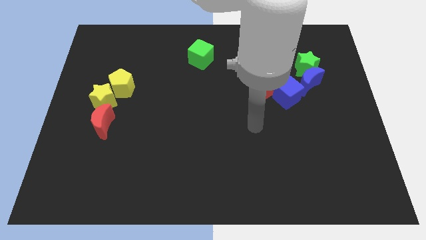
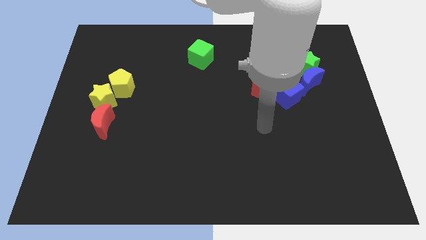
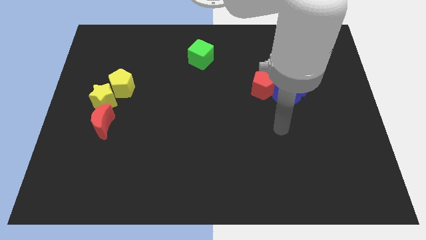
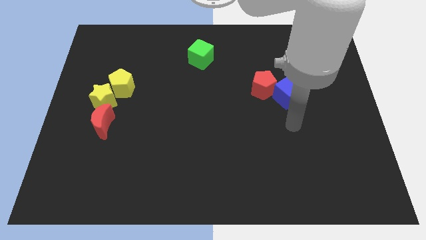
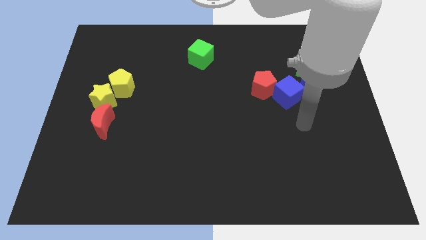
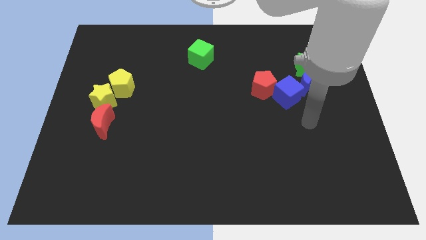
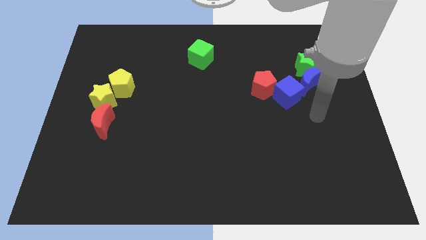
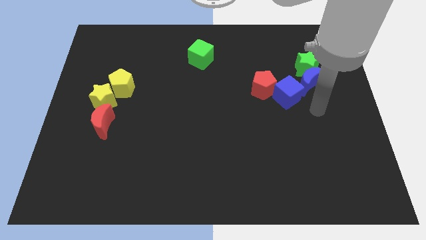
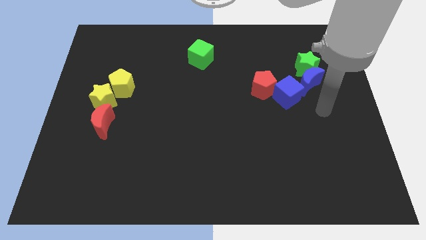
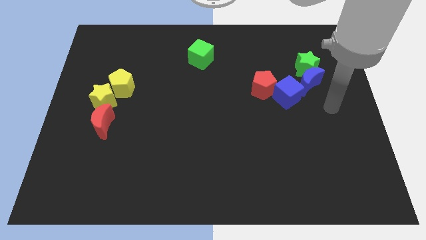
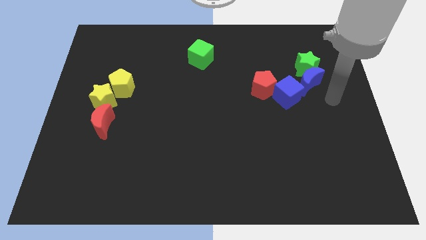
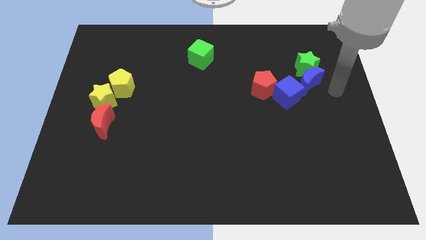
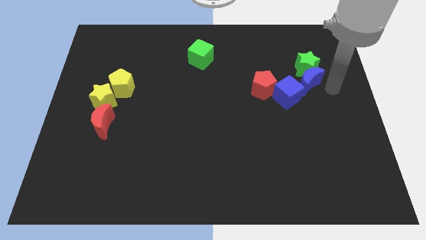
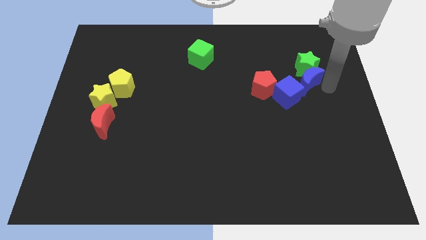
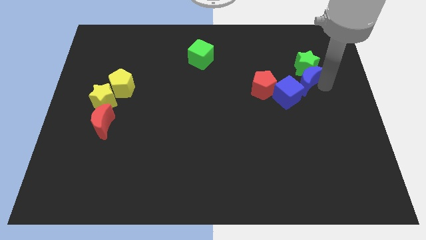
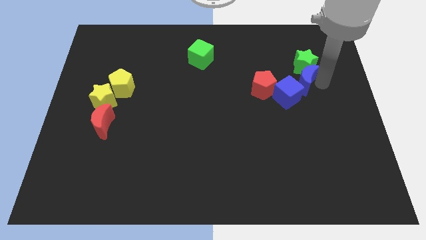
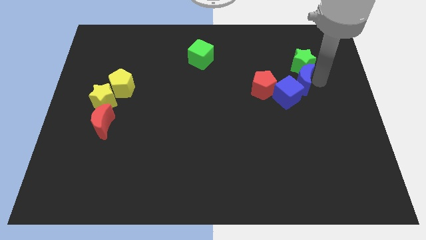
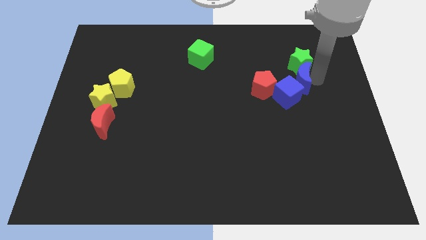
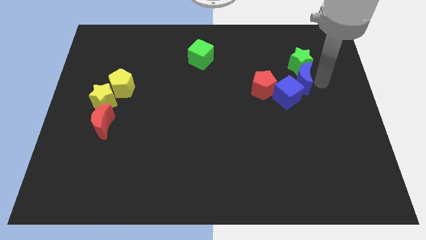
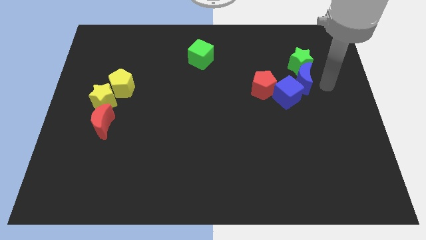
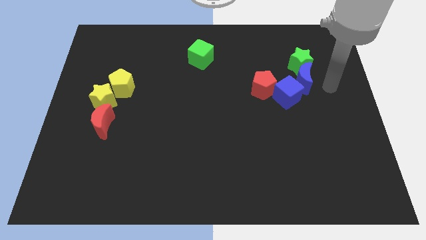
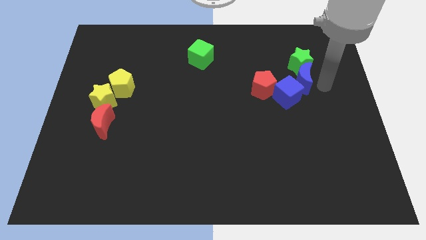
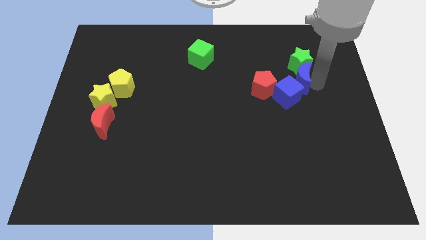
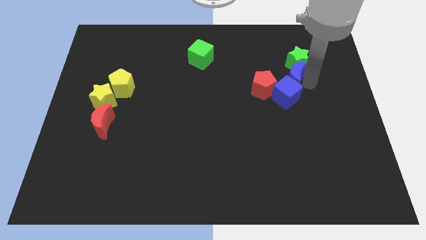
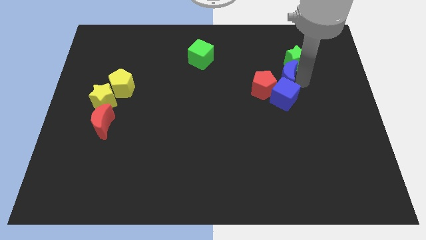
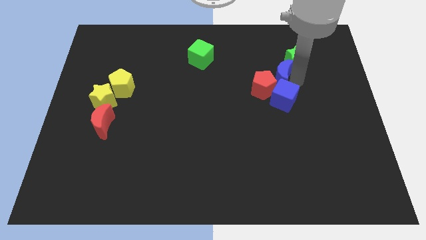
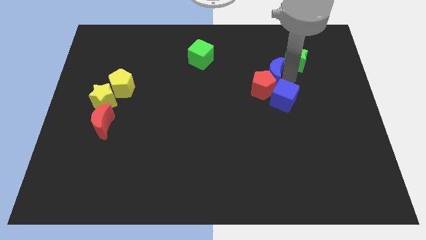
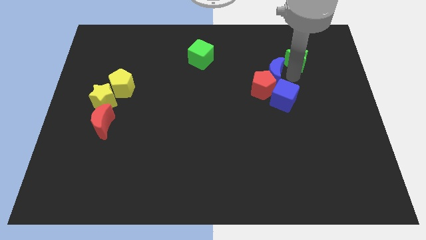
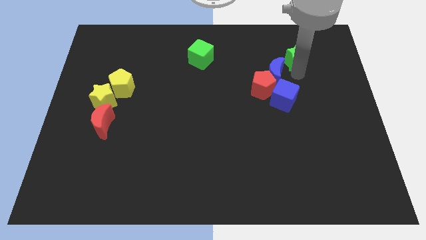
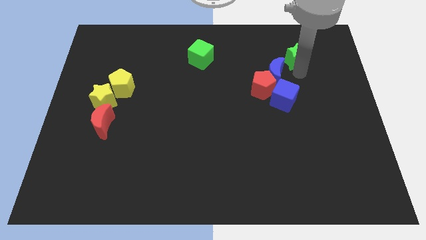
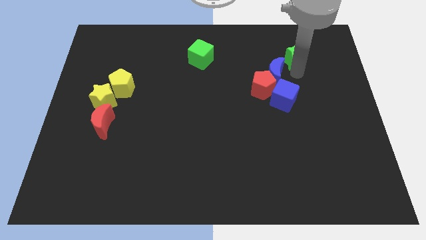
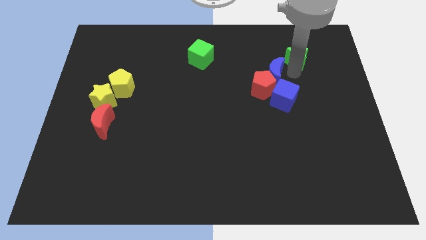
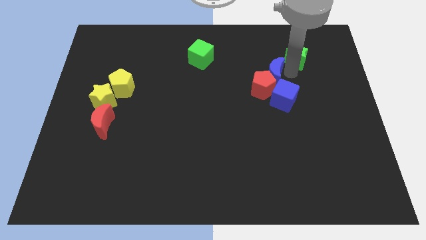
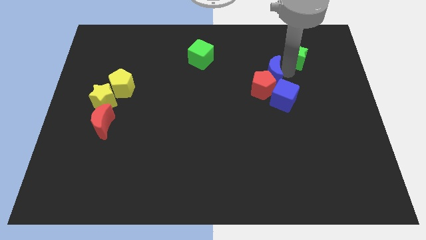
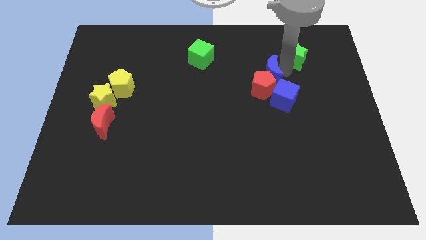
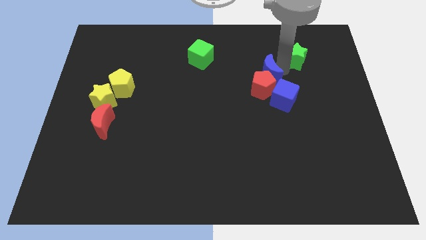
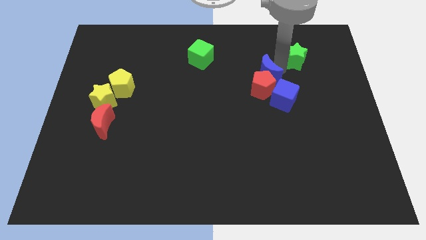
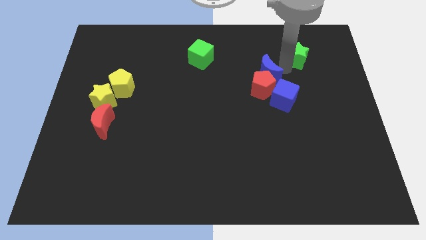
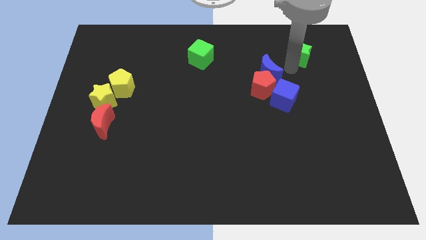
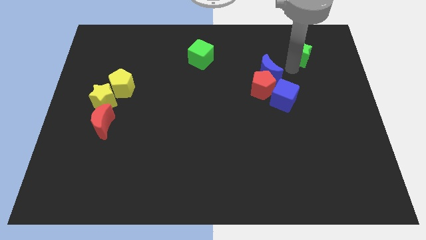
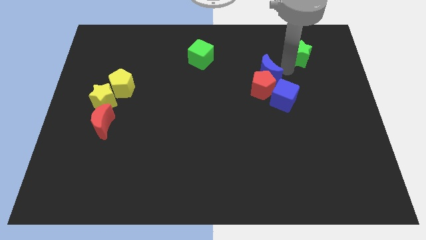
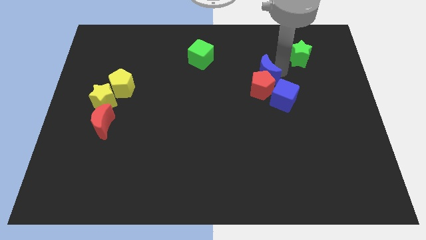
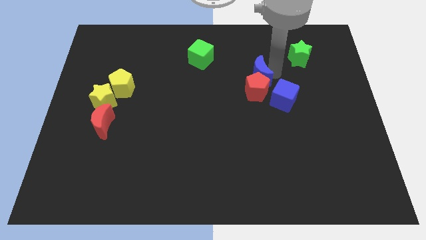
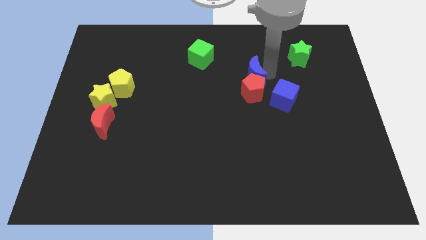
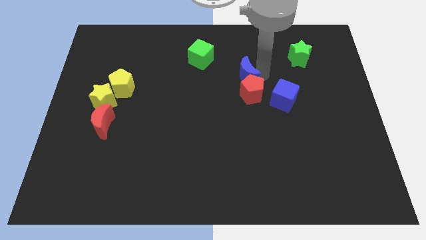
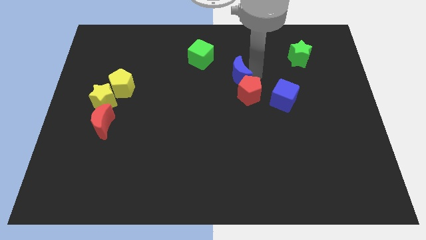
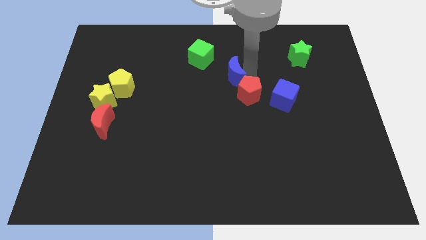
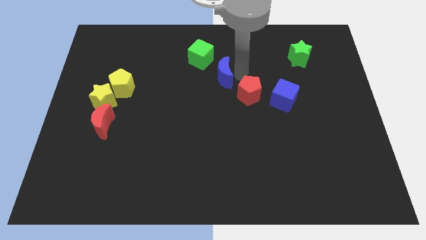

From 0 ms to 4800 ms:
push the blue moon left

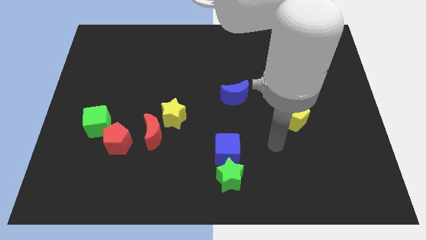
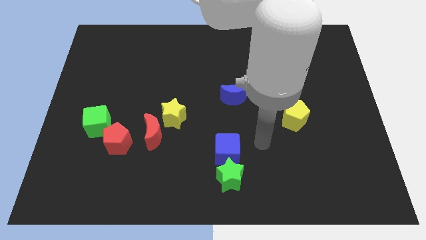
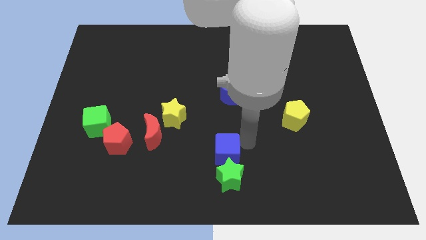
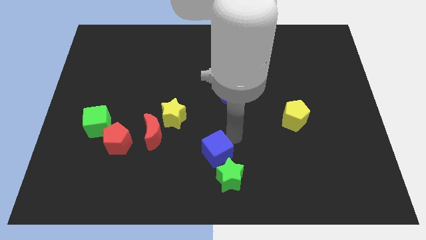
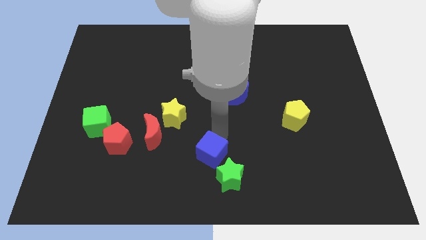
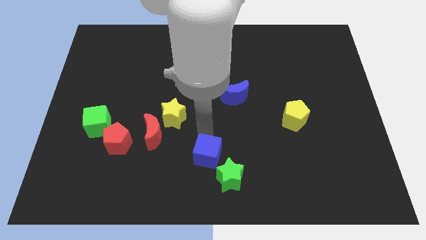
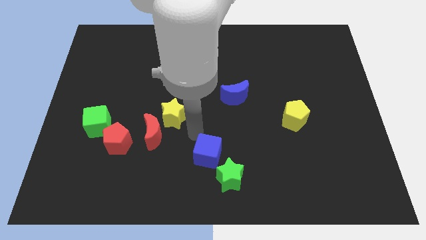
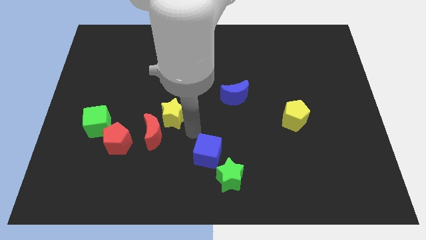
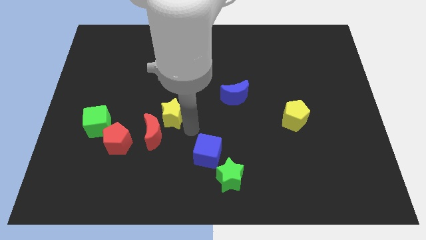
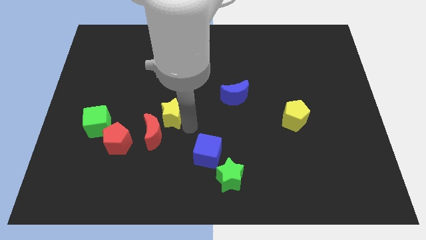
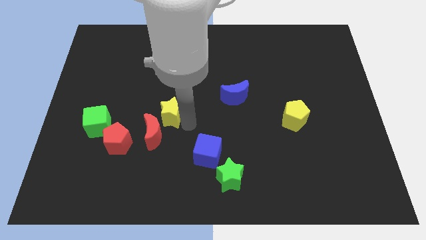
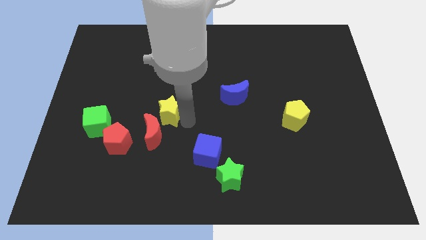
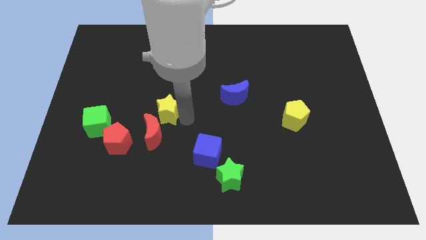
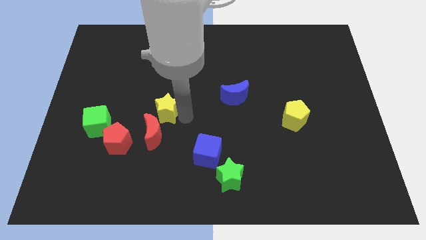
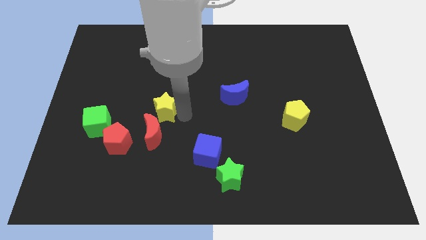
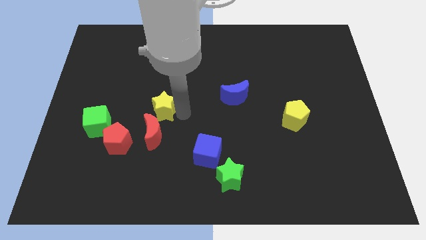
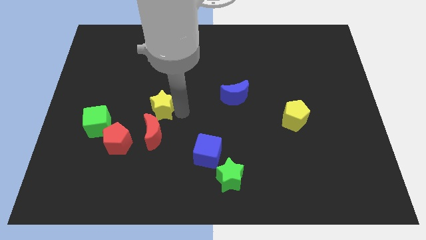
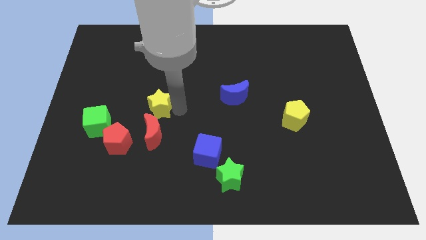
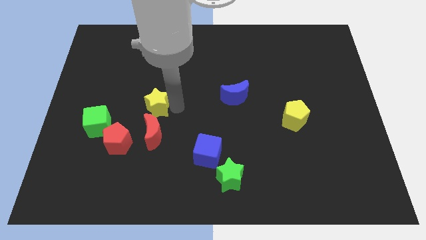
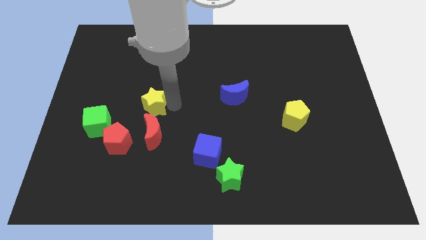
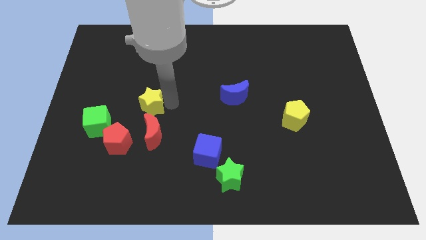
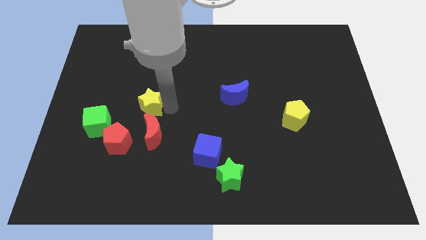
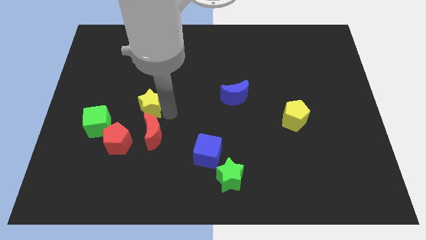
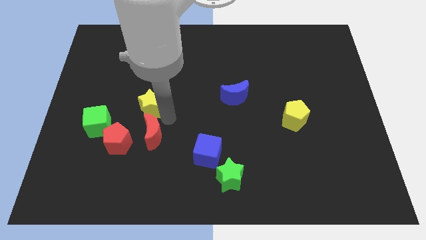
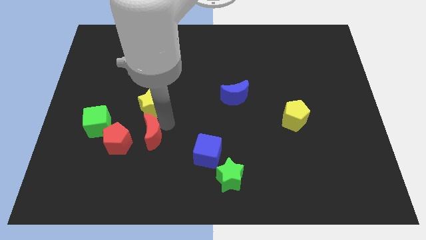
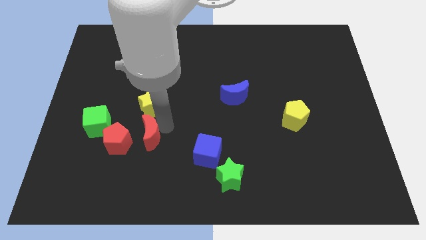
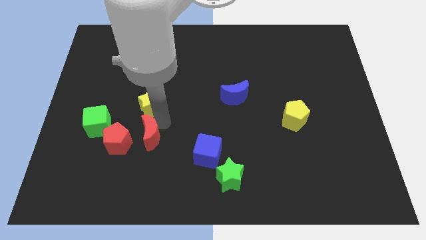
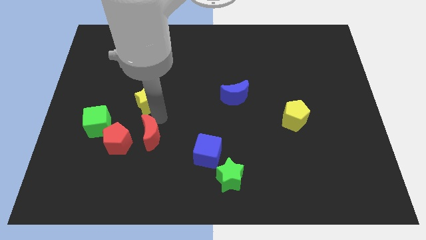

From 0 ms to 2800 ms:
push the yellow star upwards and to the left diagonally a little bit

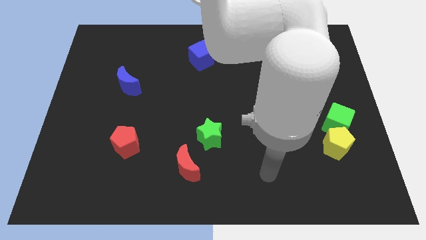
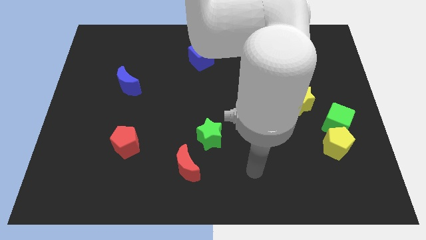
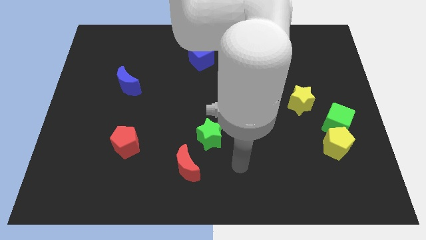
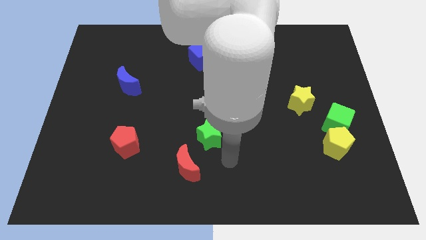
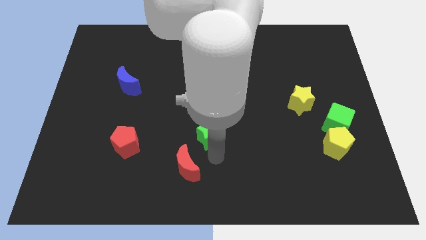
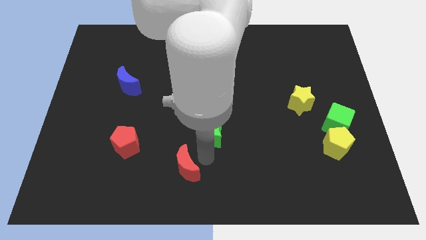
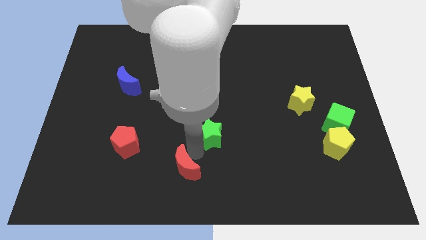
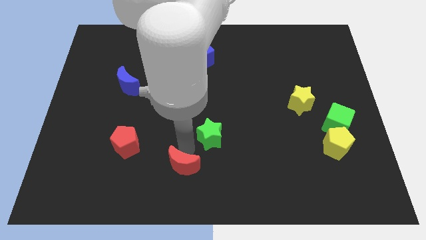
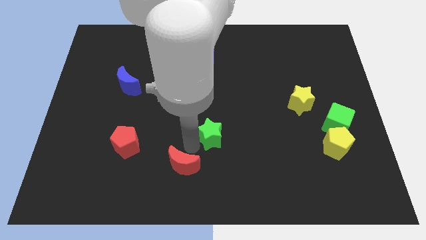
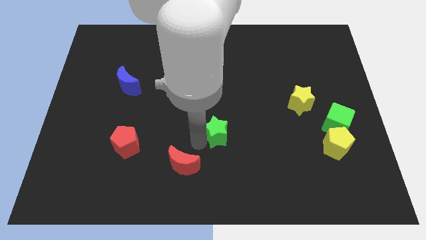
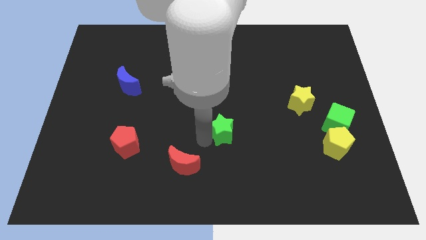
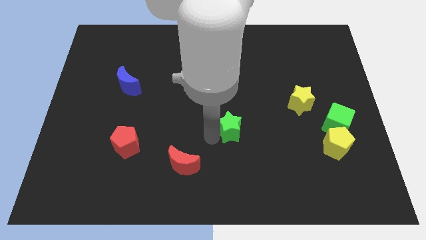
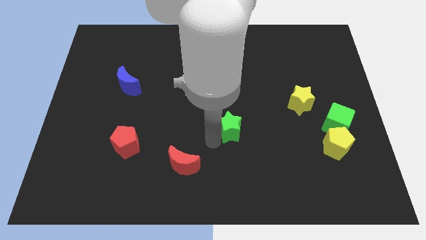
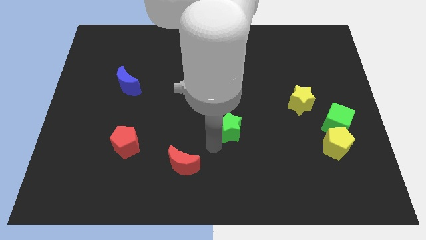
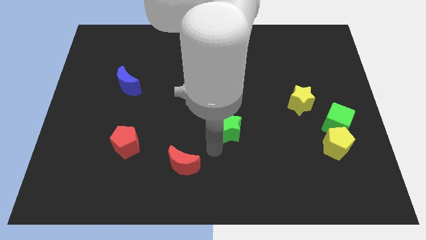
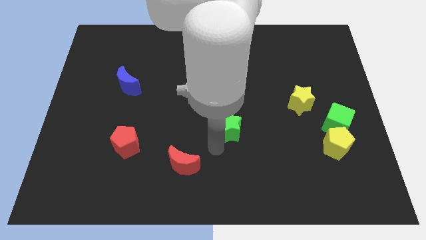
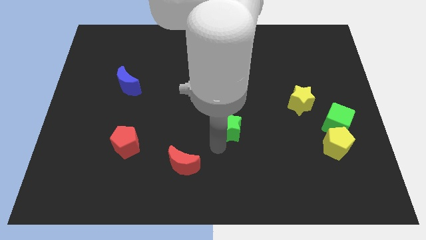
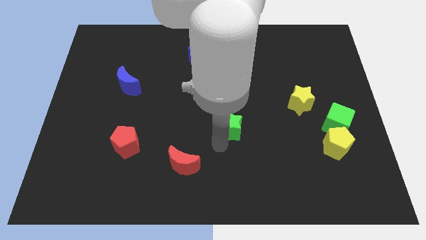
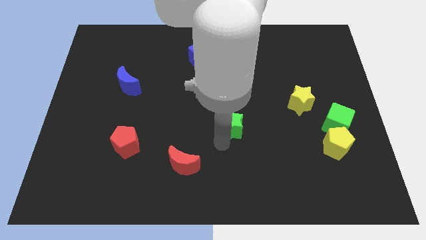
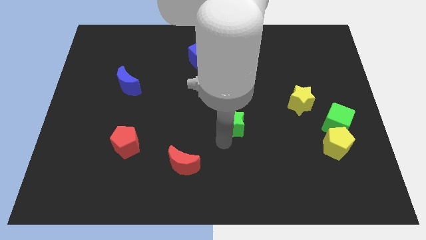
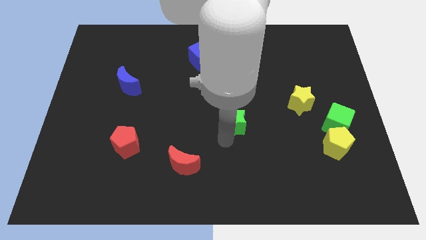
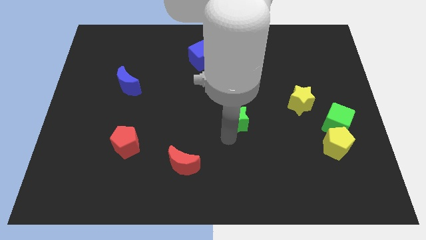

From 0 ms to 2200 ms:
slightly move the green star upwards and right
